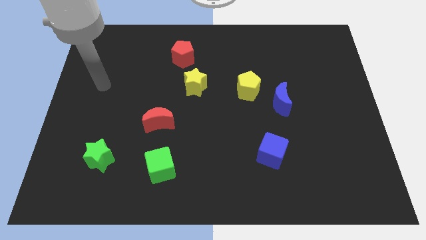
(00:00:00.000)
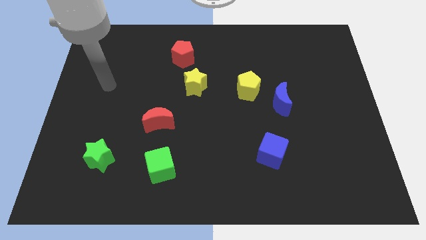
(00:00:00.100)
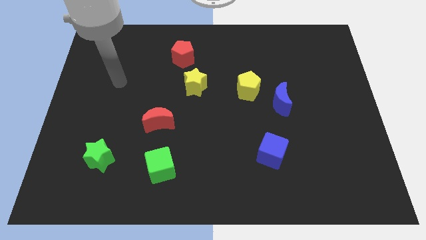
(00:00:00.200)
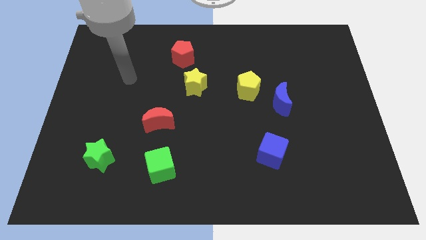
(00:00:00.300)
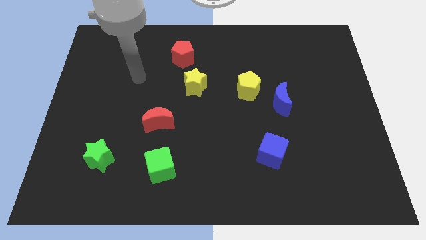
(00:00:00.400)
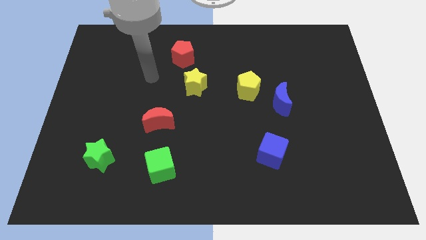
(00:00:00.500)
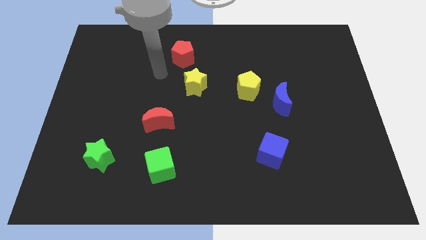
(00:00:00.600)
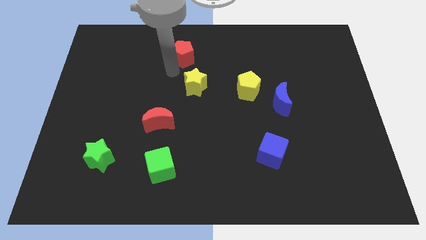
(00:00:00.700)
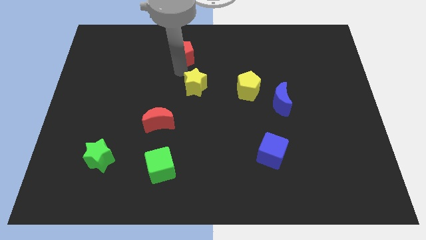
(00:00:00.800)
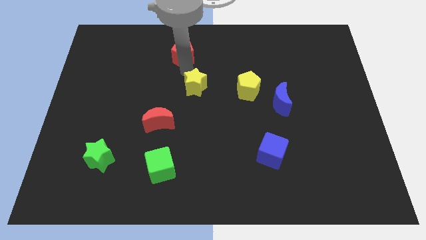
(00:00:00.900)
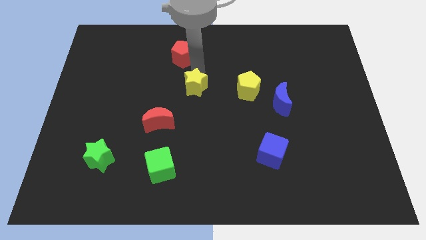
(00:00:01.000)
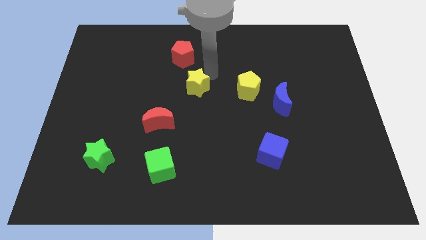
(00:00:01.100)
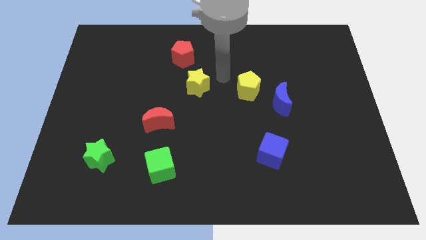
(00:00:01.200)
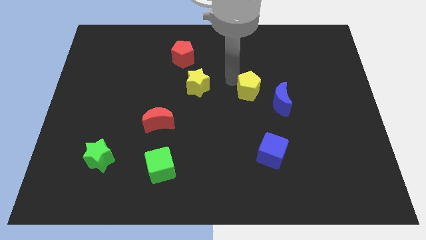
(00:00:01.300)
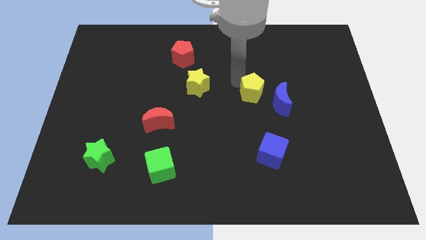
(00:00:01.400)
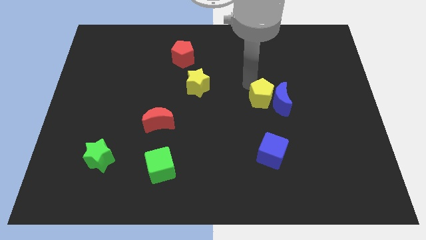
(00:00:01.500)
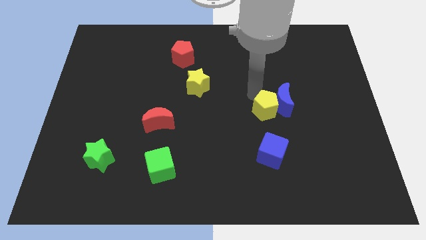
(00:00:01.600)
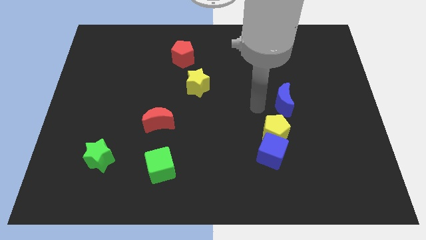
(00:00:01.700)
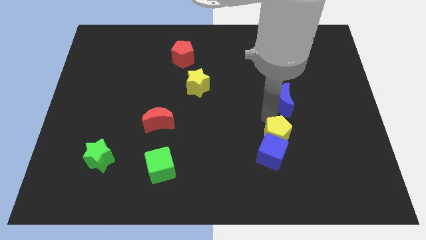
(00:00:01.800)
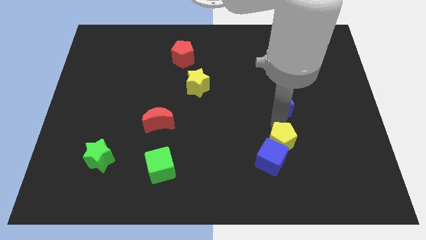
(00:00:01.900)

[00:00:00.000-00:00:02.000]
move the blue moon away from the yellow pentagon

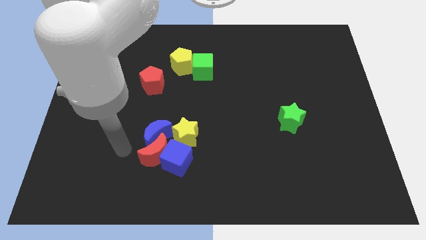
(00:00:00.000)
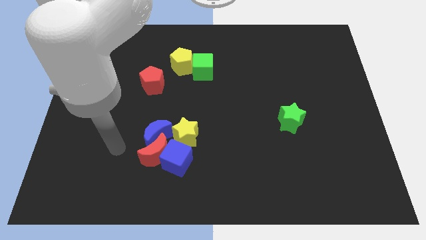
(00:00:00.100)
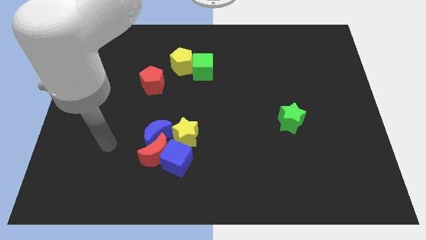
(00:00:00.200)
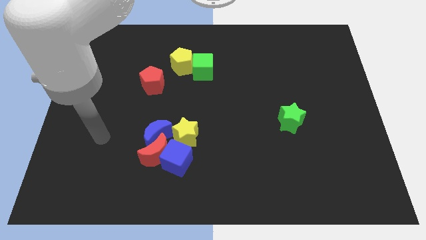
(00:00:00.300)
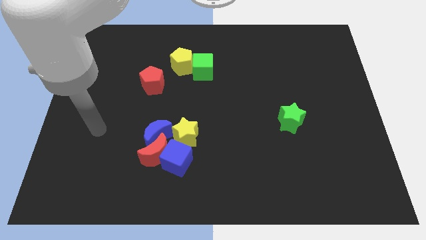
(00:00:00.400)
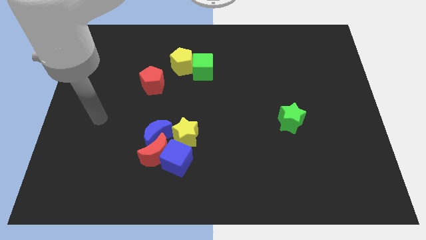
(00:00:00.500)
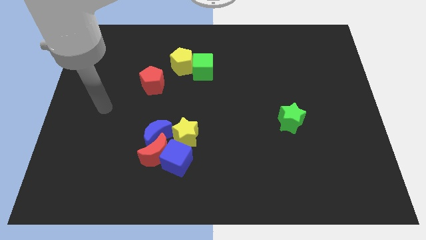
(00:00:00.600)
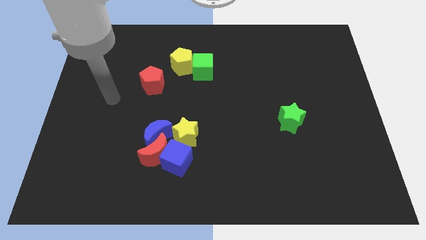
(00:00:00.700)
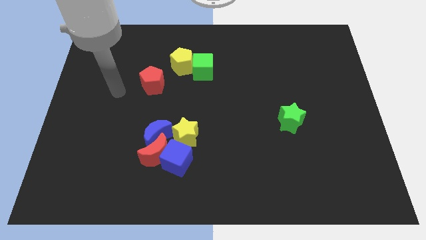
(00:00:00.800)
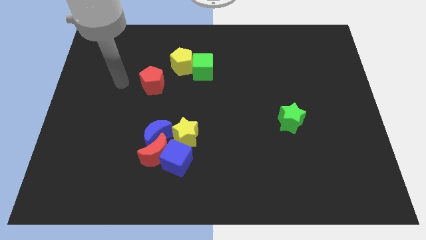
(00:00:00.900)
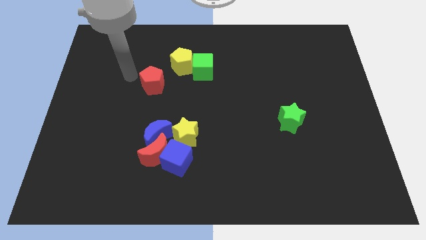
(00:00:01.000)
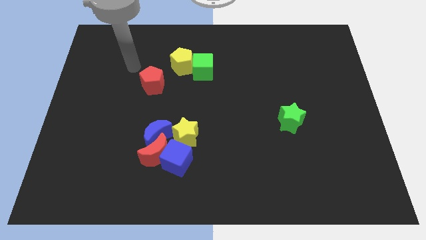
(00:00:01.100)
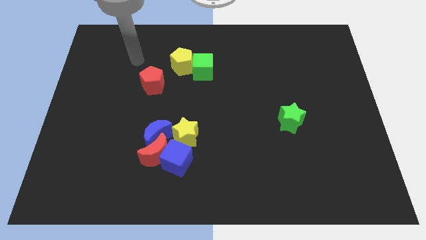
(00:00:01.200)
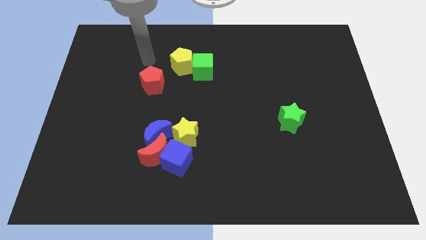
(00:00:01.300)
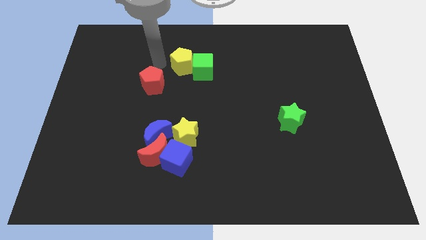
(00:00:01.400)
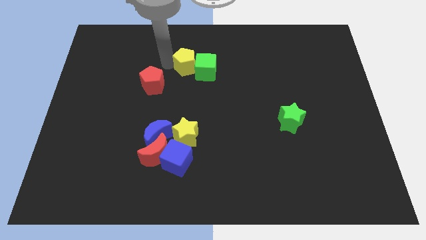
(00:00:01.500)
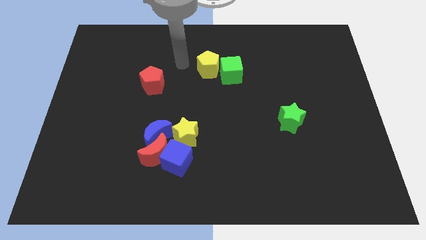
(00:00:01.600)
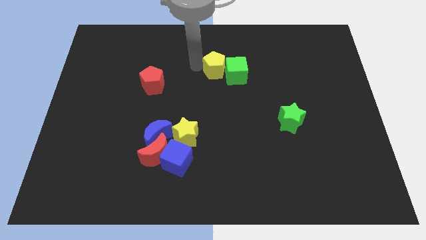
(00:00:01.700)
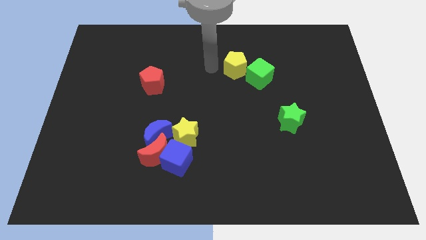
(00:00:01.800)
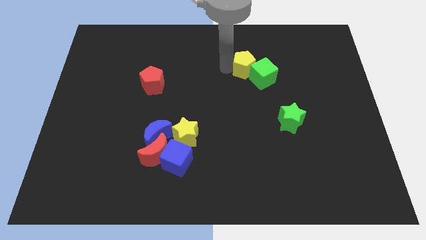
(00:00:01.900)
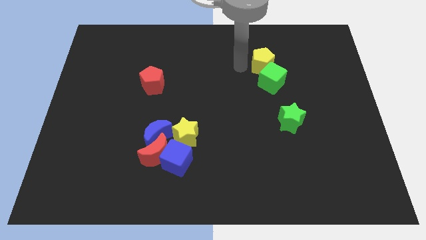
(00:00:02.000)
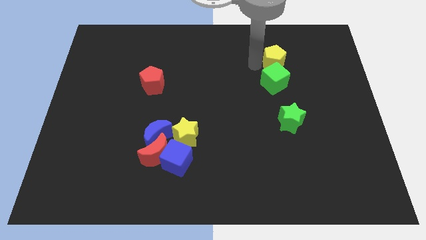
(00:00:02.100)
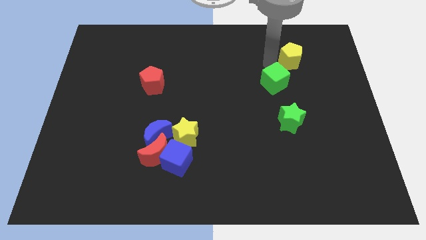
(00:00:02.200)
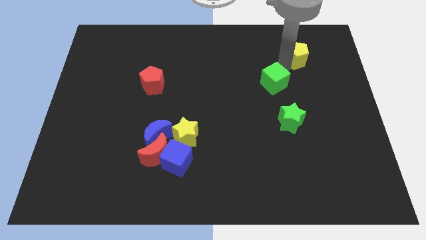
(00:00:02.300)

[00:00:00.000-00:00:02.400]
move the green cube away from the yellow pentagon

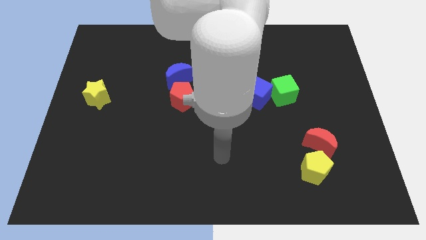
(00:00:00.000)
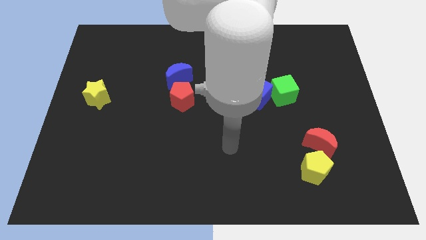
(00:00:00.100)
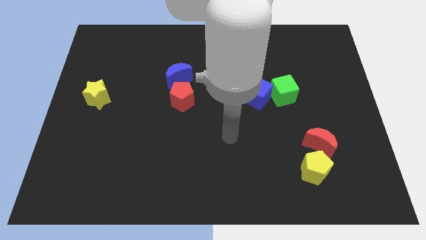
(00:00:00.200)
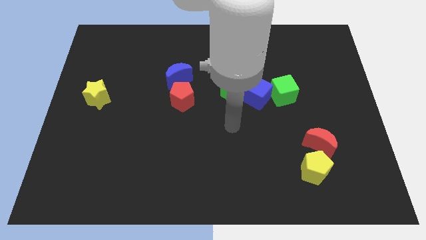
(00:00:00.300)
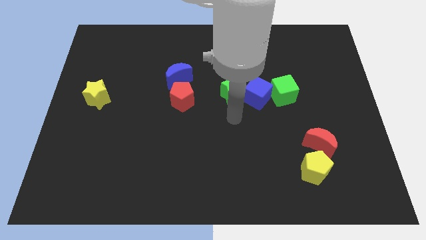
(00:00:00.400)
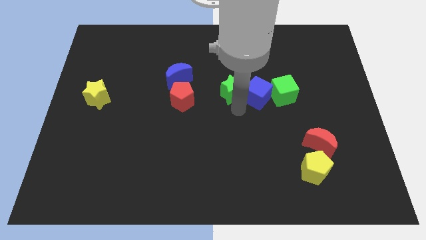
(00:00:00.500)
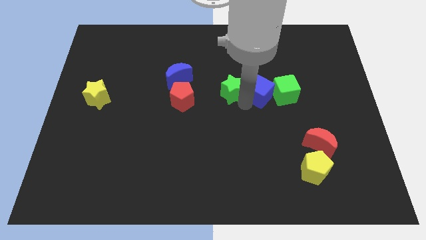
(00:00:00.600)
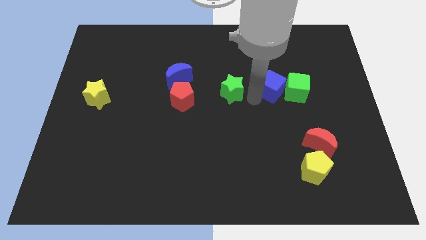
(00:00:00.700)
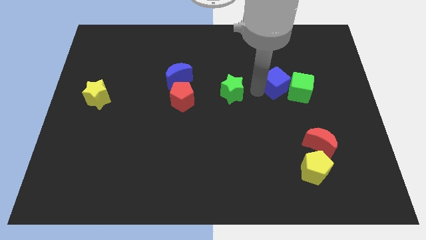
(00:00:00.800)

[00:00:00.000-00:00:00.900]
separate the green star from the blue cube

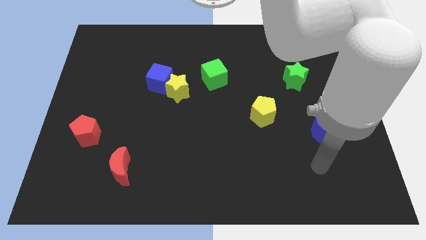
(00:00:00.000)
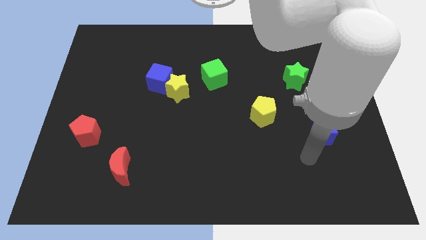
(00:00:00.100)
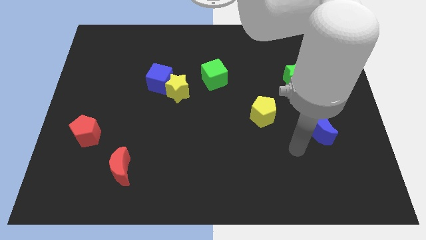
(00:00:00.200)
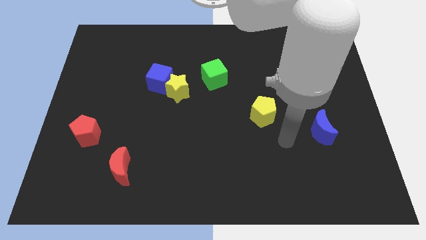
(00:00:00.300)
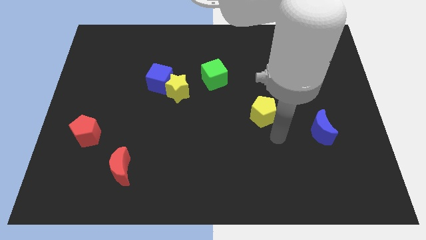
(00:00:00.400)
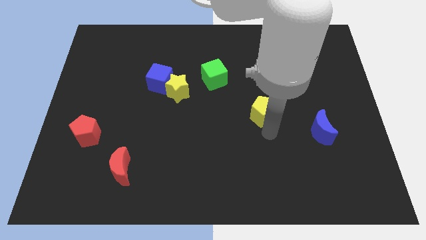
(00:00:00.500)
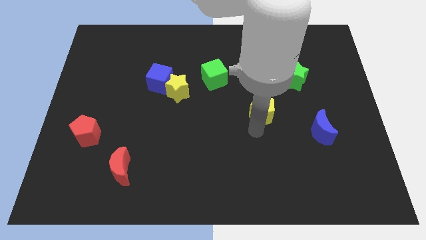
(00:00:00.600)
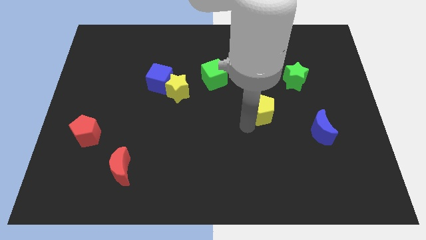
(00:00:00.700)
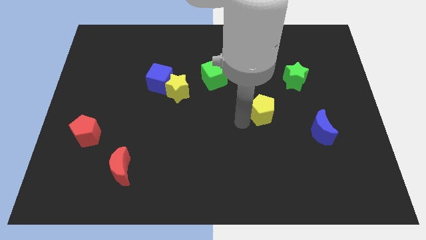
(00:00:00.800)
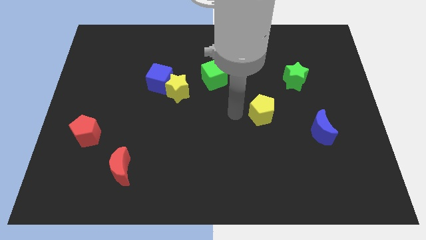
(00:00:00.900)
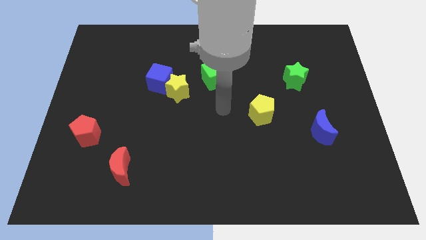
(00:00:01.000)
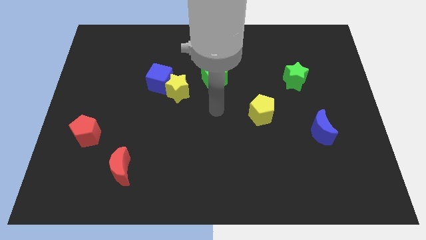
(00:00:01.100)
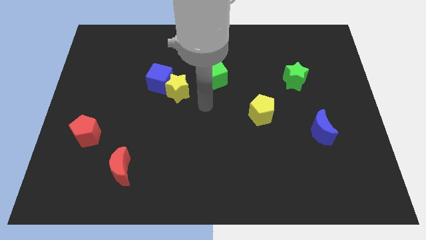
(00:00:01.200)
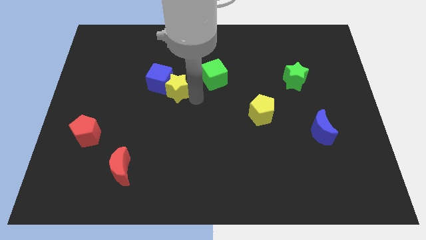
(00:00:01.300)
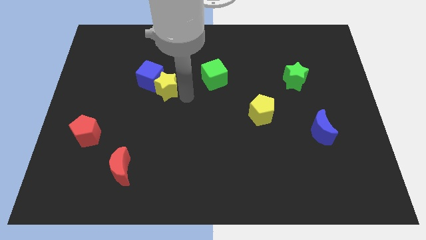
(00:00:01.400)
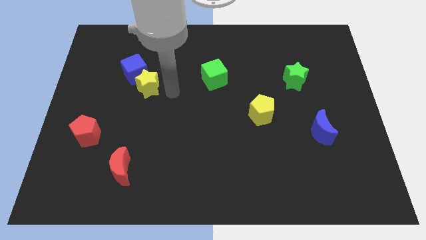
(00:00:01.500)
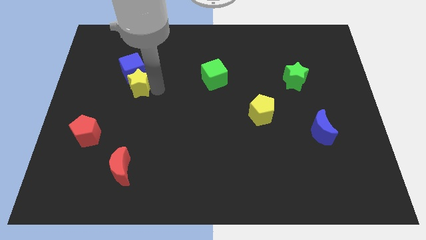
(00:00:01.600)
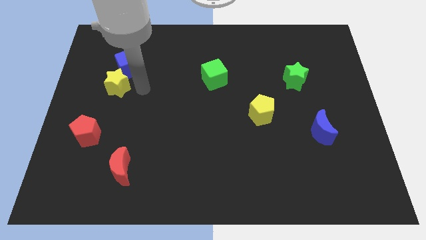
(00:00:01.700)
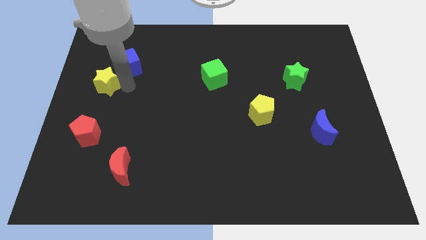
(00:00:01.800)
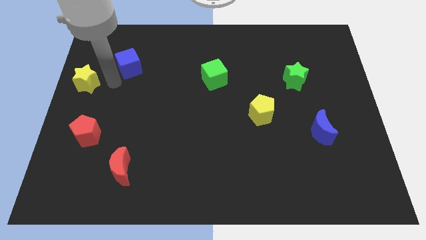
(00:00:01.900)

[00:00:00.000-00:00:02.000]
separate the blue cube from the yellow star

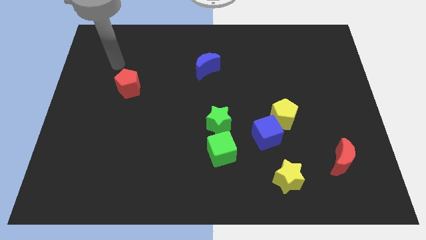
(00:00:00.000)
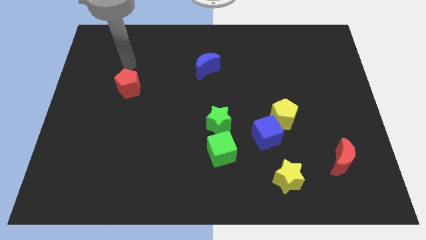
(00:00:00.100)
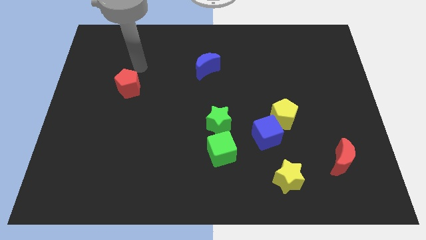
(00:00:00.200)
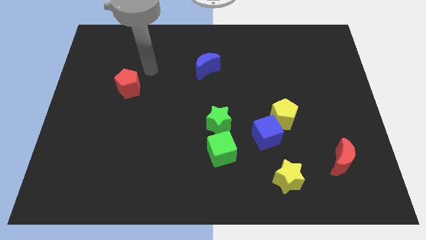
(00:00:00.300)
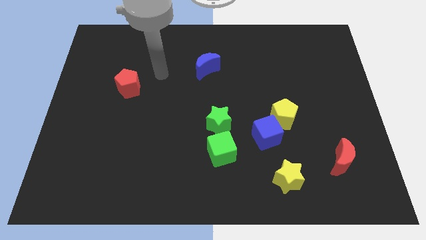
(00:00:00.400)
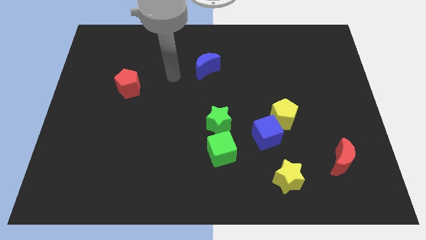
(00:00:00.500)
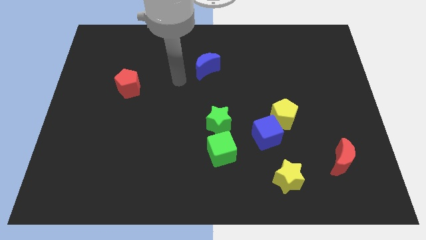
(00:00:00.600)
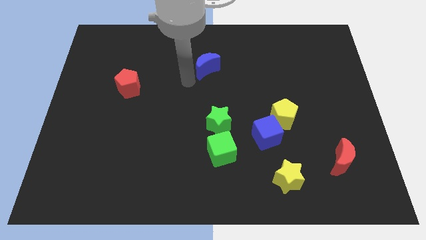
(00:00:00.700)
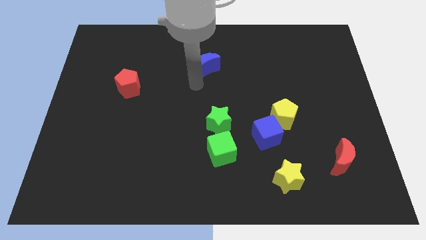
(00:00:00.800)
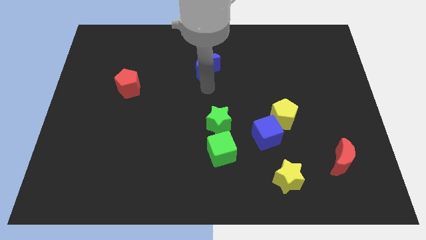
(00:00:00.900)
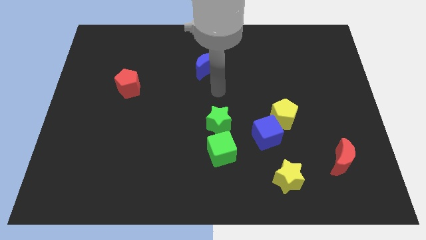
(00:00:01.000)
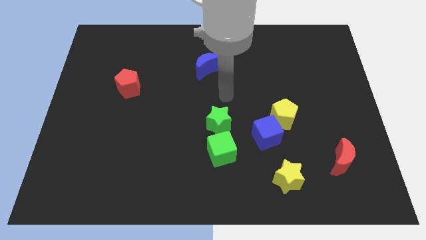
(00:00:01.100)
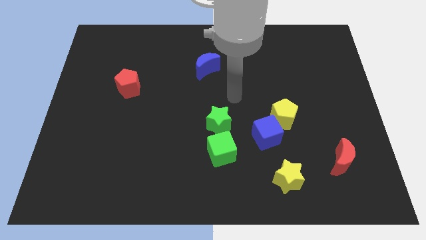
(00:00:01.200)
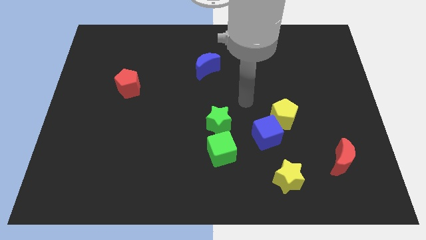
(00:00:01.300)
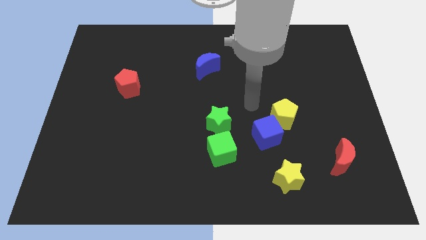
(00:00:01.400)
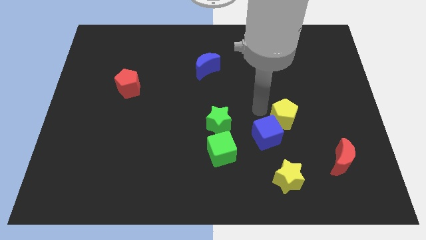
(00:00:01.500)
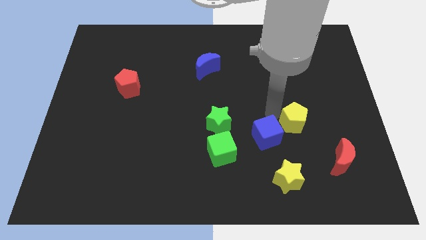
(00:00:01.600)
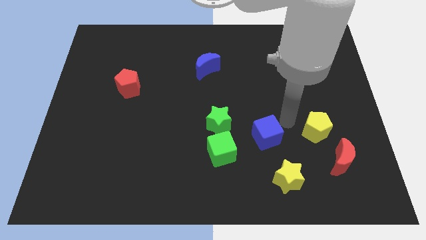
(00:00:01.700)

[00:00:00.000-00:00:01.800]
separate the blue cube from the yellow pentagon
